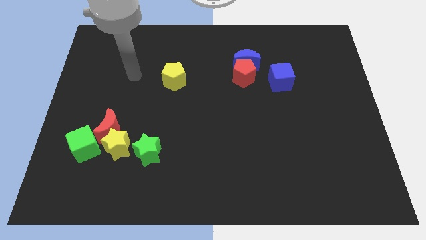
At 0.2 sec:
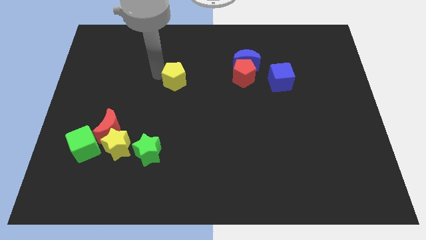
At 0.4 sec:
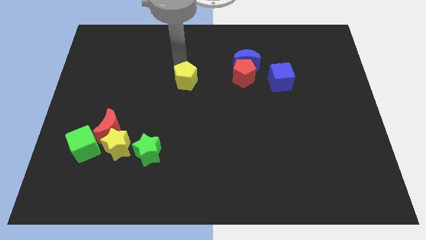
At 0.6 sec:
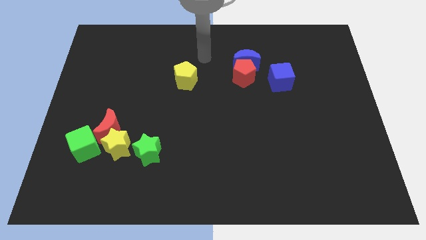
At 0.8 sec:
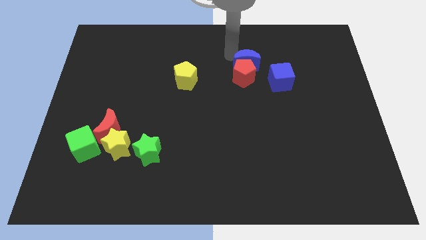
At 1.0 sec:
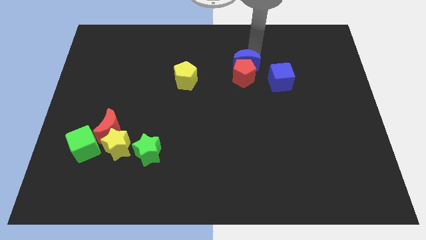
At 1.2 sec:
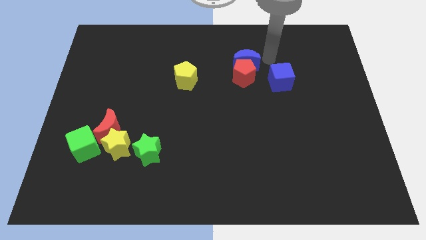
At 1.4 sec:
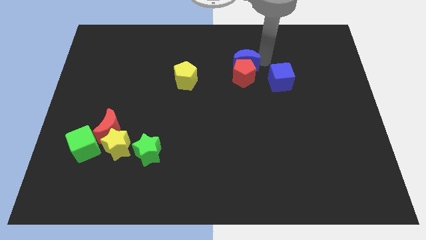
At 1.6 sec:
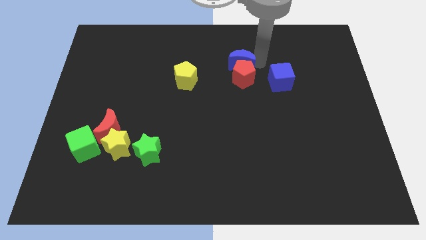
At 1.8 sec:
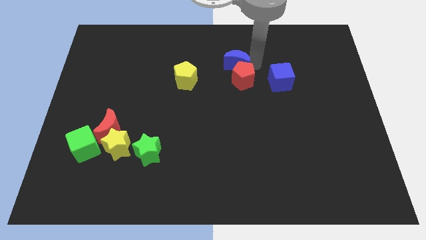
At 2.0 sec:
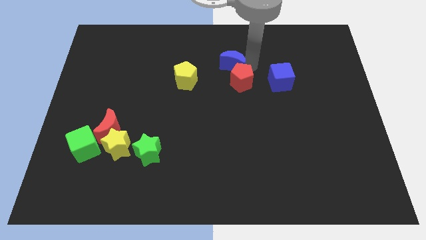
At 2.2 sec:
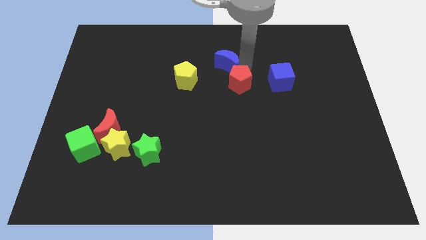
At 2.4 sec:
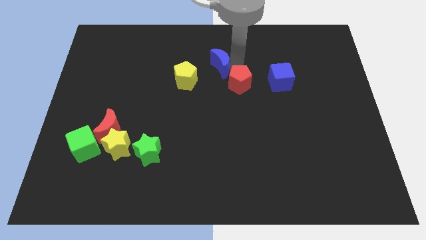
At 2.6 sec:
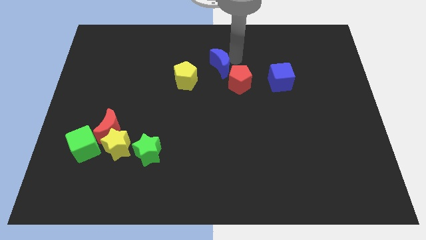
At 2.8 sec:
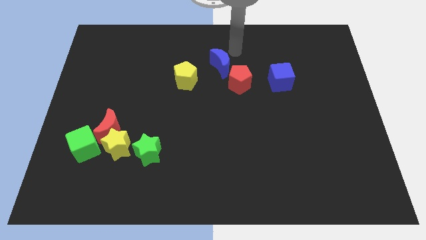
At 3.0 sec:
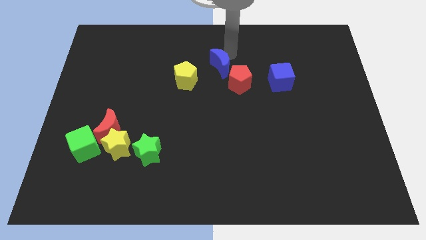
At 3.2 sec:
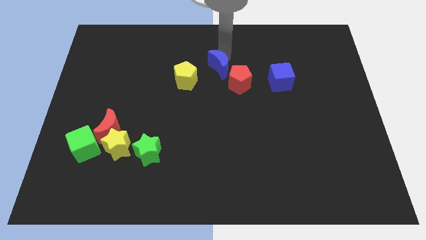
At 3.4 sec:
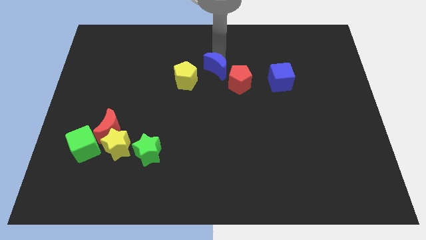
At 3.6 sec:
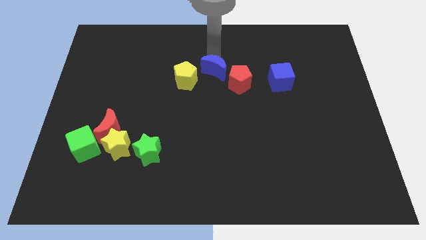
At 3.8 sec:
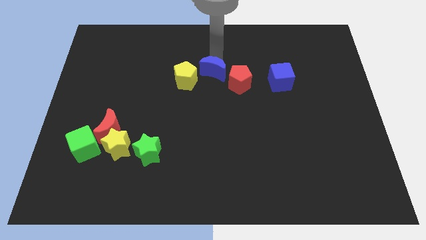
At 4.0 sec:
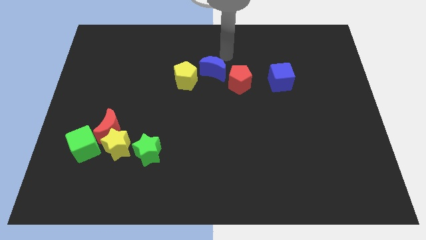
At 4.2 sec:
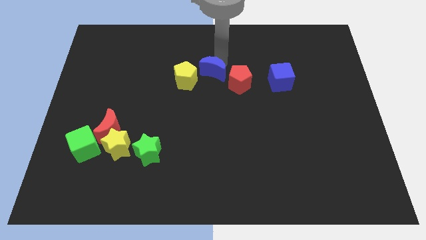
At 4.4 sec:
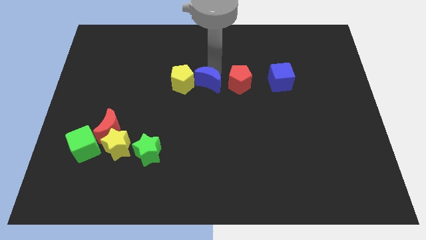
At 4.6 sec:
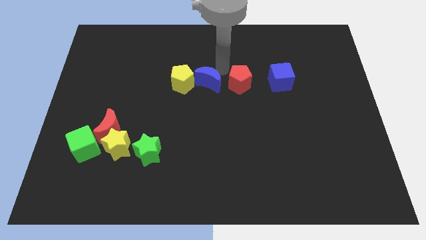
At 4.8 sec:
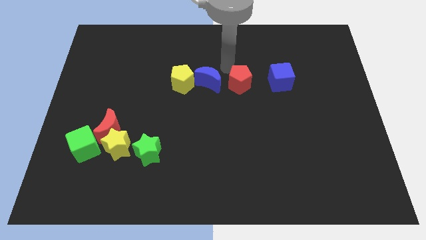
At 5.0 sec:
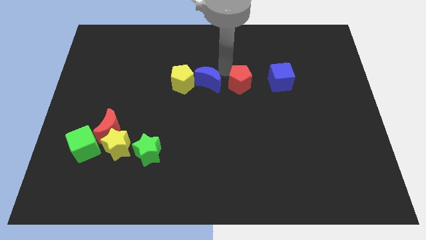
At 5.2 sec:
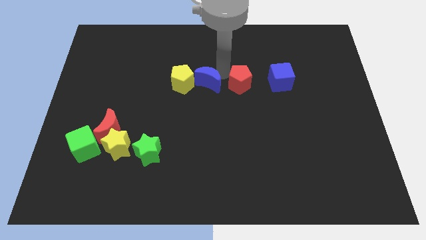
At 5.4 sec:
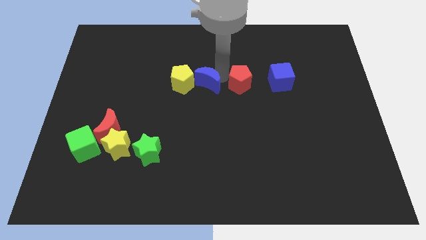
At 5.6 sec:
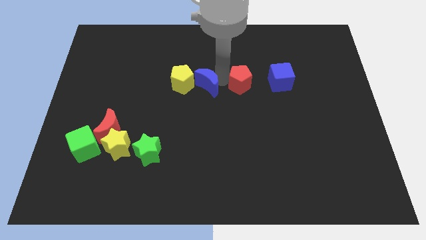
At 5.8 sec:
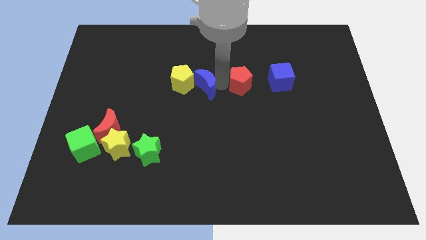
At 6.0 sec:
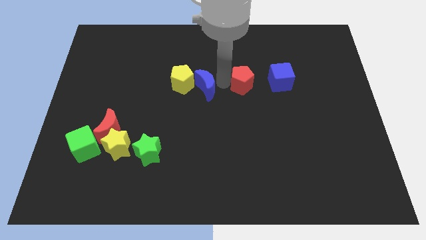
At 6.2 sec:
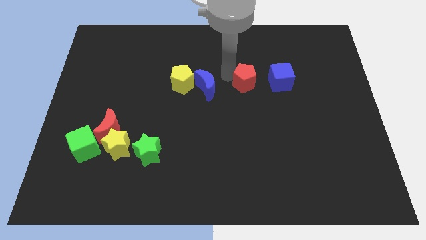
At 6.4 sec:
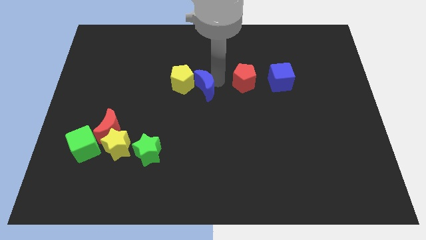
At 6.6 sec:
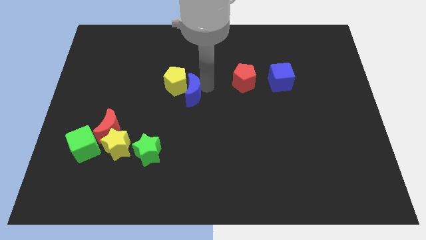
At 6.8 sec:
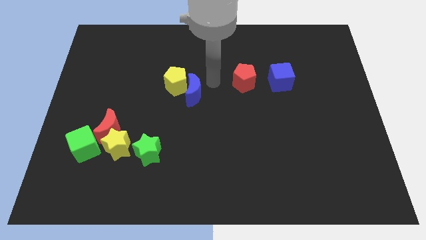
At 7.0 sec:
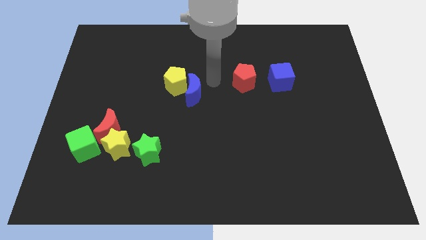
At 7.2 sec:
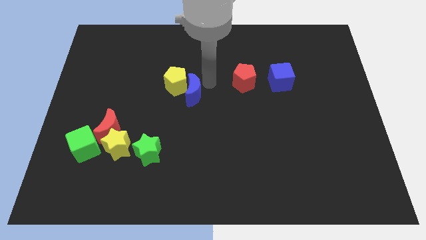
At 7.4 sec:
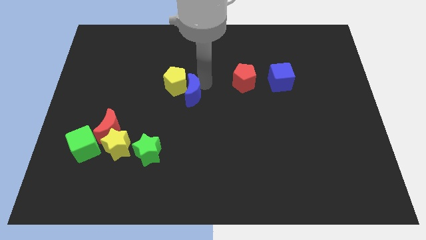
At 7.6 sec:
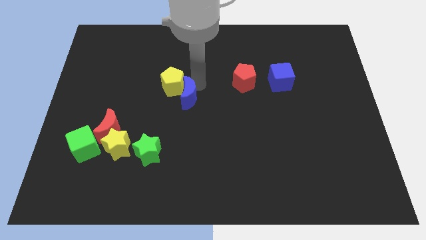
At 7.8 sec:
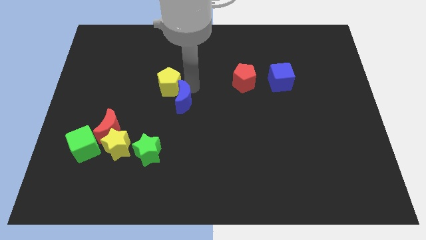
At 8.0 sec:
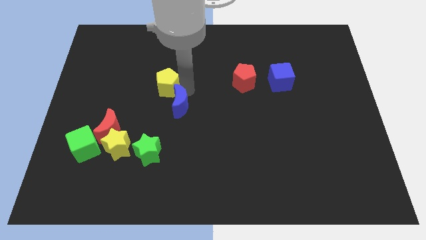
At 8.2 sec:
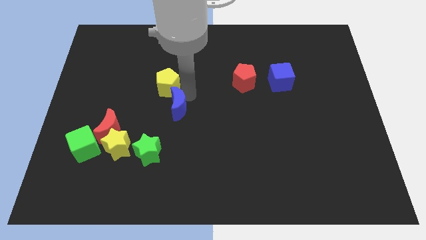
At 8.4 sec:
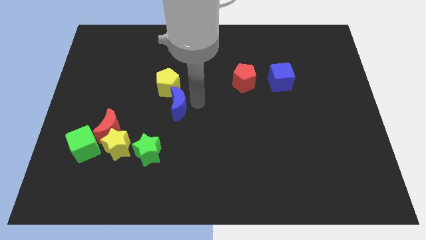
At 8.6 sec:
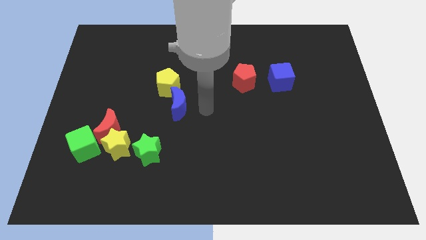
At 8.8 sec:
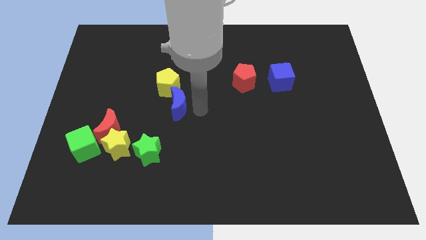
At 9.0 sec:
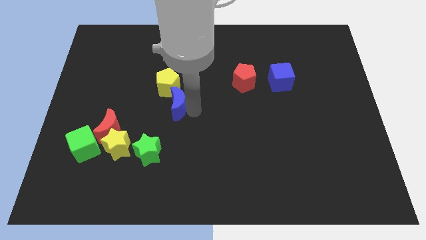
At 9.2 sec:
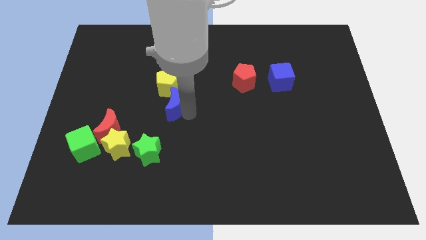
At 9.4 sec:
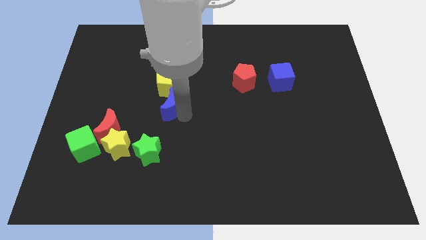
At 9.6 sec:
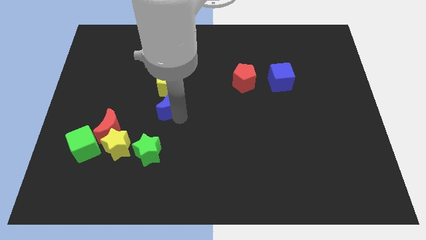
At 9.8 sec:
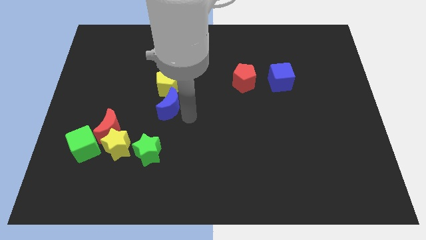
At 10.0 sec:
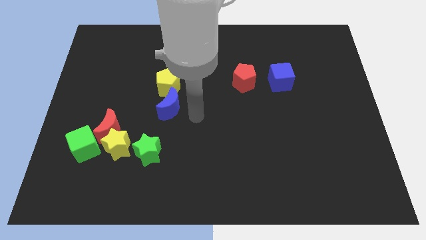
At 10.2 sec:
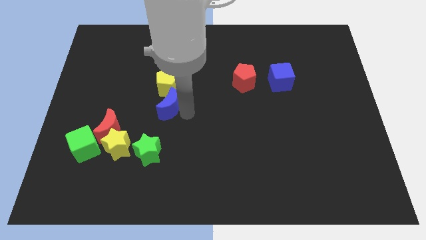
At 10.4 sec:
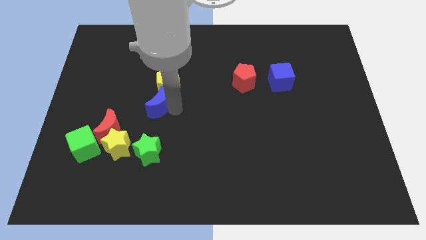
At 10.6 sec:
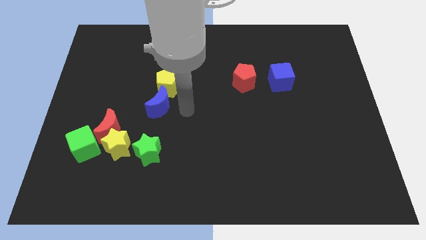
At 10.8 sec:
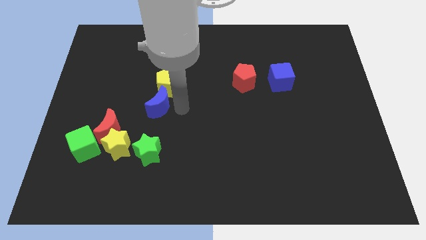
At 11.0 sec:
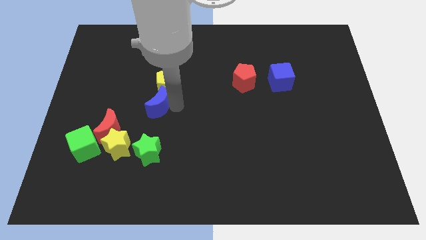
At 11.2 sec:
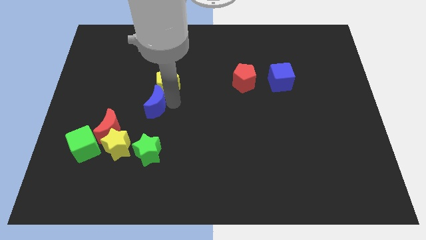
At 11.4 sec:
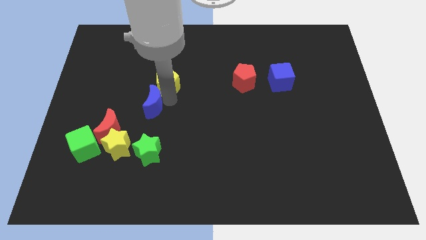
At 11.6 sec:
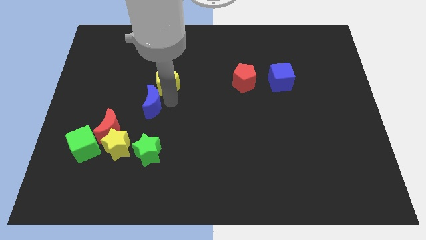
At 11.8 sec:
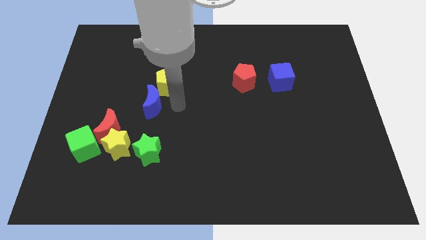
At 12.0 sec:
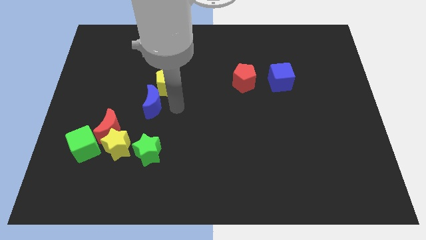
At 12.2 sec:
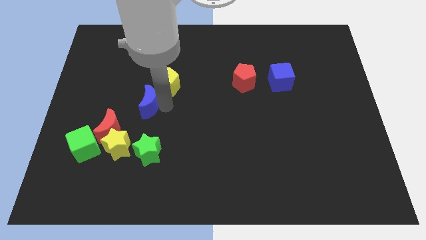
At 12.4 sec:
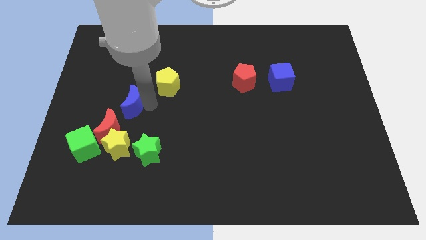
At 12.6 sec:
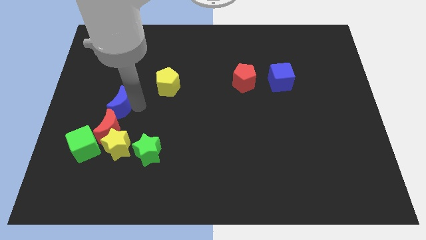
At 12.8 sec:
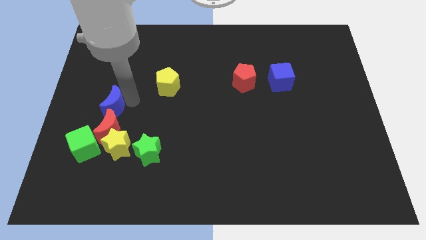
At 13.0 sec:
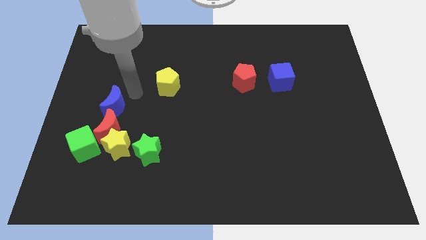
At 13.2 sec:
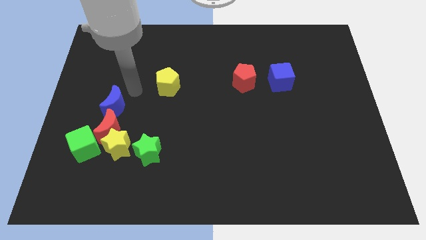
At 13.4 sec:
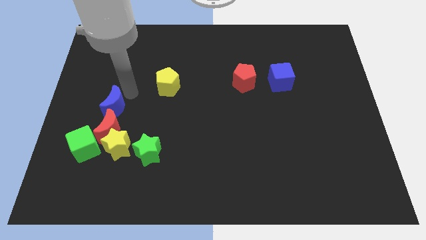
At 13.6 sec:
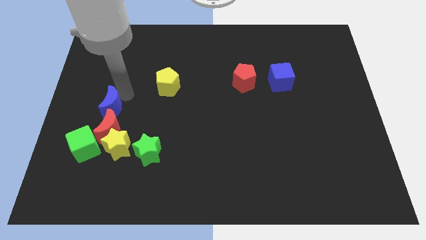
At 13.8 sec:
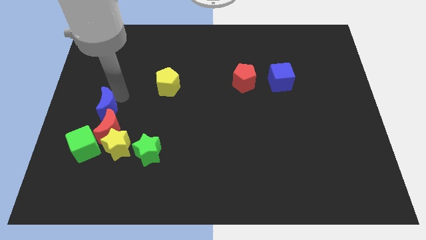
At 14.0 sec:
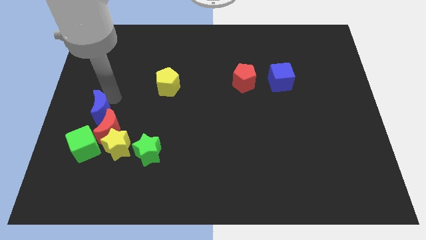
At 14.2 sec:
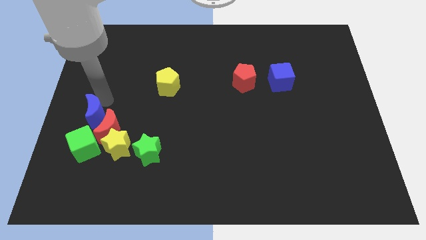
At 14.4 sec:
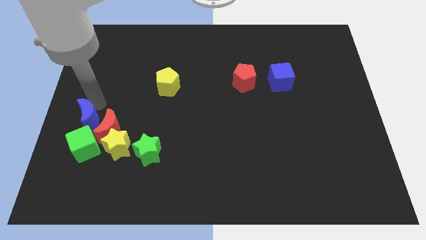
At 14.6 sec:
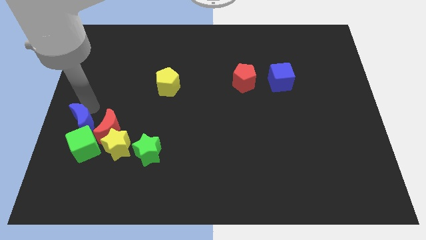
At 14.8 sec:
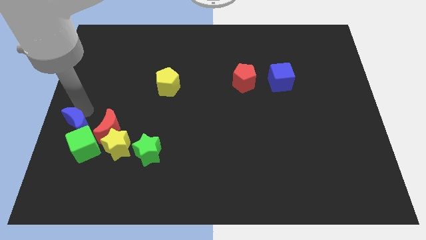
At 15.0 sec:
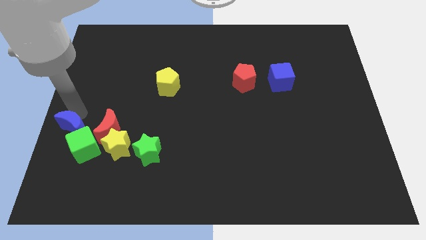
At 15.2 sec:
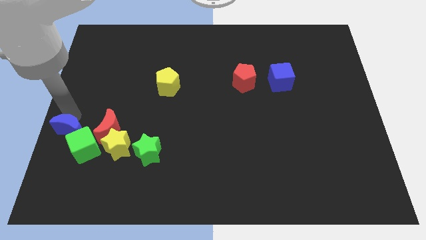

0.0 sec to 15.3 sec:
slide the blue moon to the green cube
